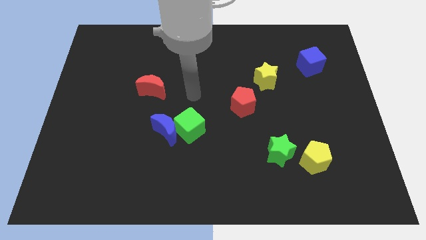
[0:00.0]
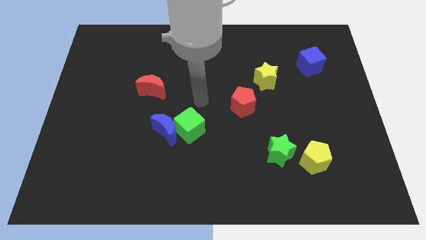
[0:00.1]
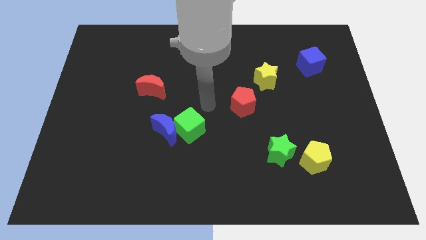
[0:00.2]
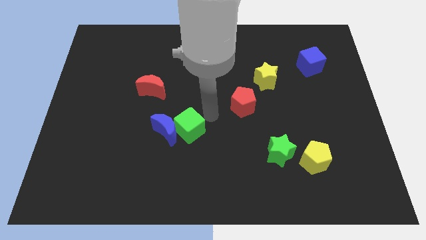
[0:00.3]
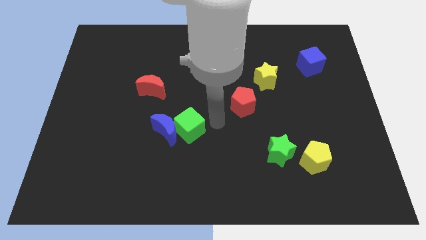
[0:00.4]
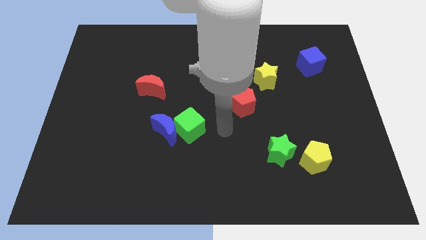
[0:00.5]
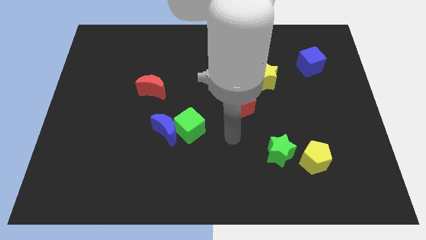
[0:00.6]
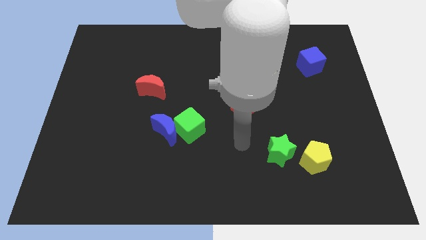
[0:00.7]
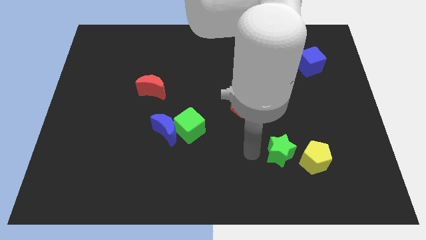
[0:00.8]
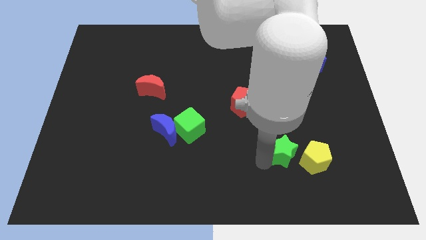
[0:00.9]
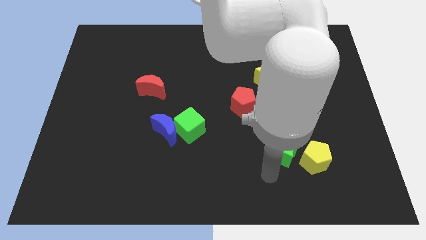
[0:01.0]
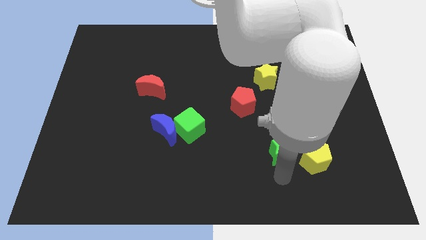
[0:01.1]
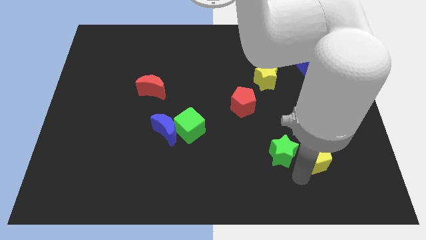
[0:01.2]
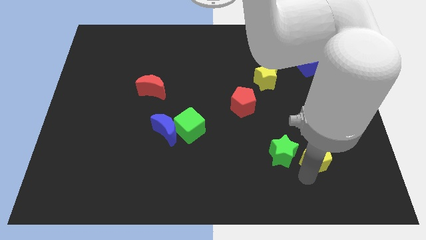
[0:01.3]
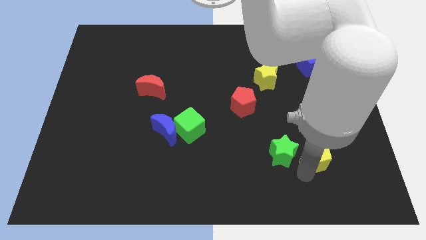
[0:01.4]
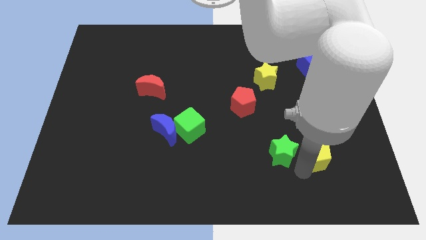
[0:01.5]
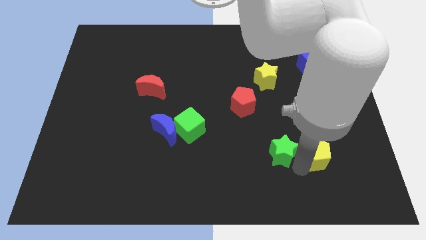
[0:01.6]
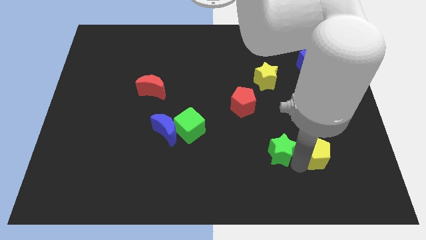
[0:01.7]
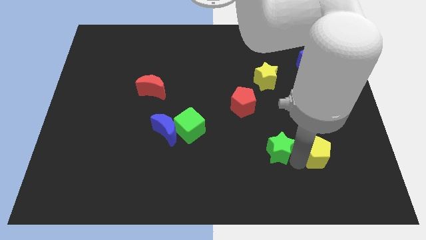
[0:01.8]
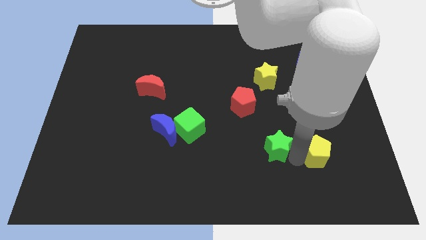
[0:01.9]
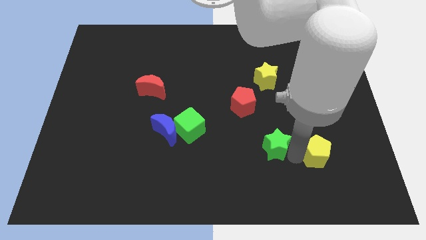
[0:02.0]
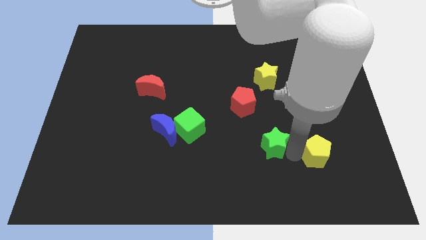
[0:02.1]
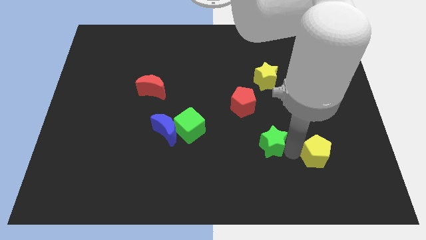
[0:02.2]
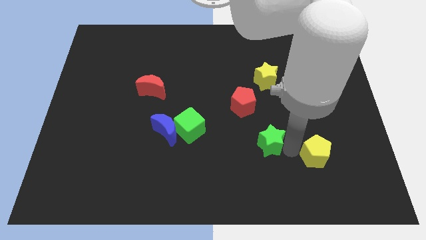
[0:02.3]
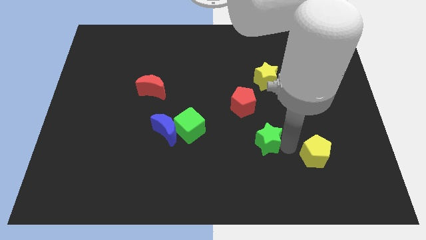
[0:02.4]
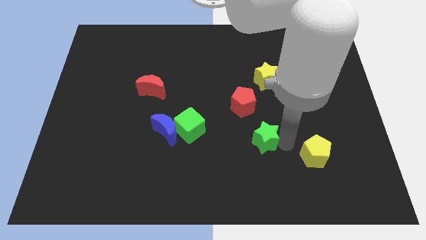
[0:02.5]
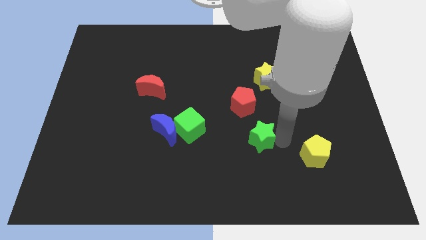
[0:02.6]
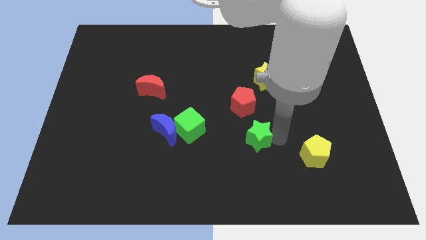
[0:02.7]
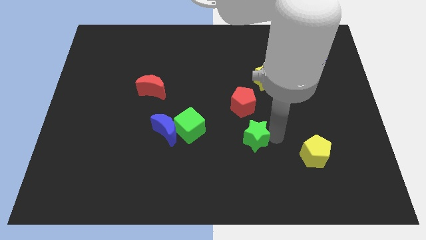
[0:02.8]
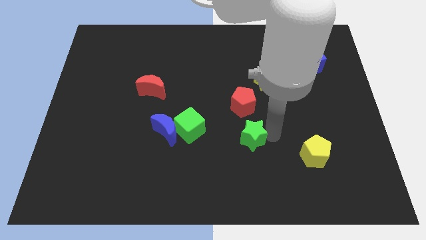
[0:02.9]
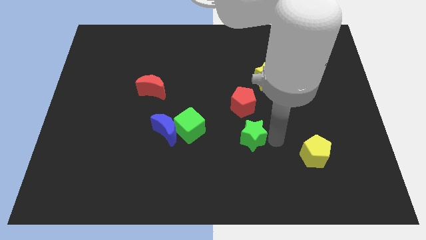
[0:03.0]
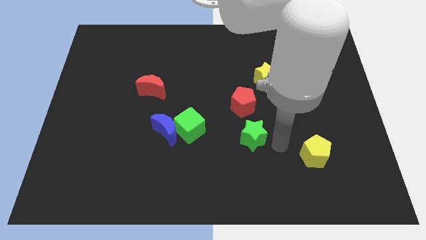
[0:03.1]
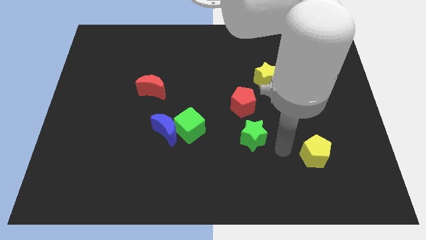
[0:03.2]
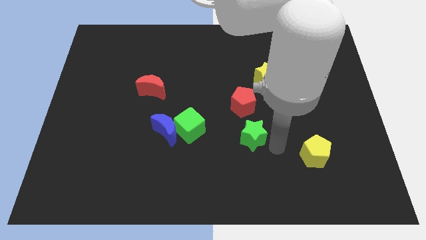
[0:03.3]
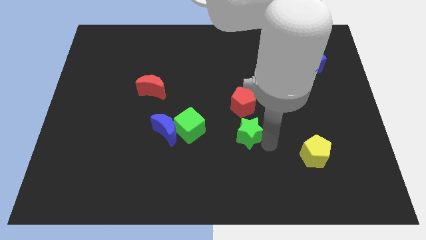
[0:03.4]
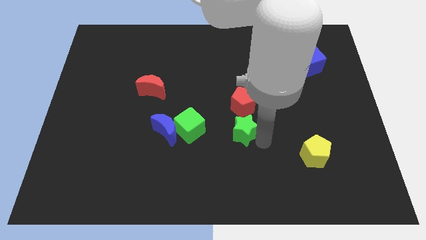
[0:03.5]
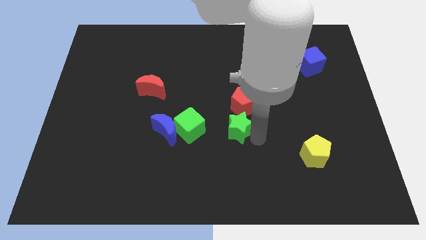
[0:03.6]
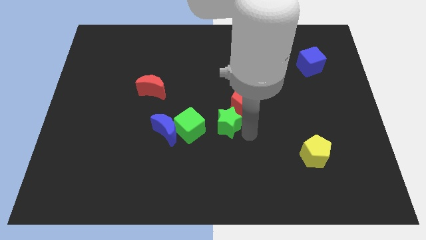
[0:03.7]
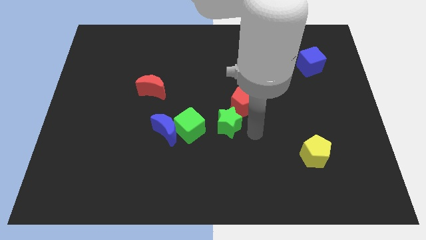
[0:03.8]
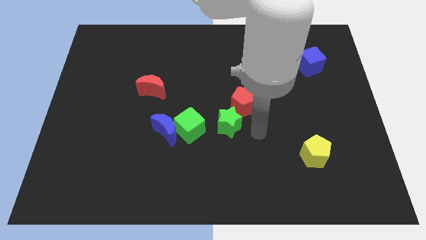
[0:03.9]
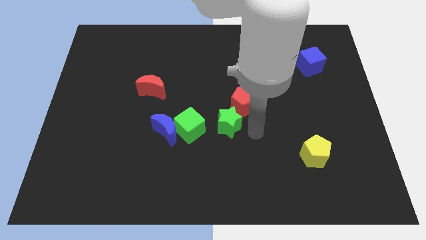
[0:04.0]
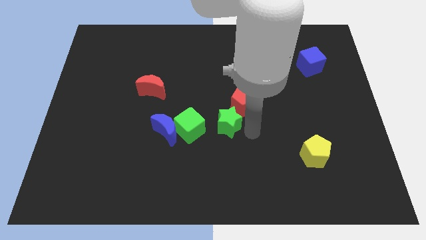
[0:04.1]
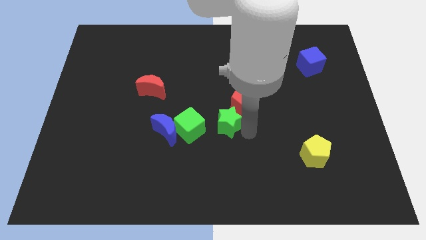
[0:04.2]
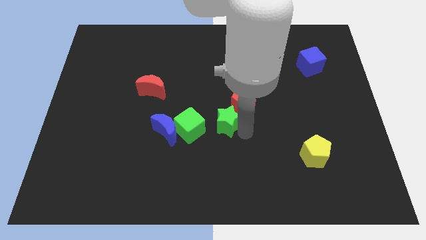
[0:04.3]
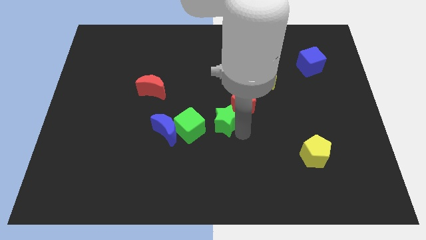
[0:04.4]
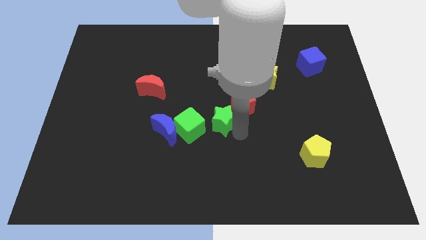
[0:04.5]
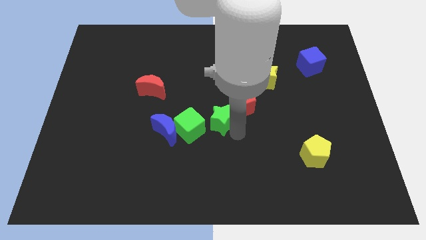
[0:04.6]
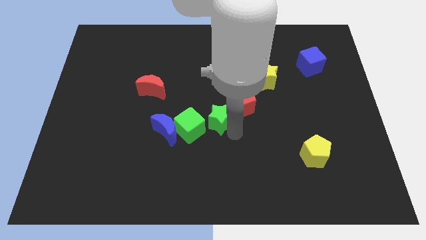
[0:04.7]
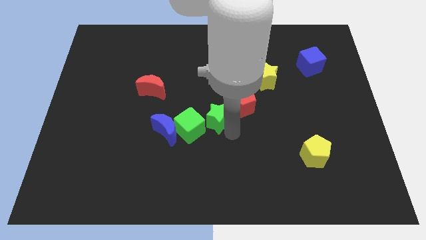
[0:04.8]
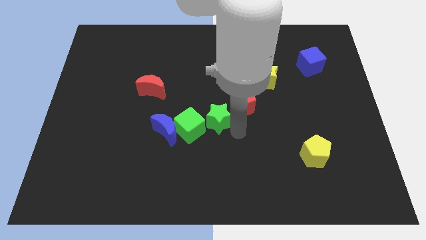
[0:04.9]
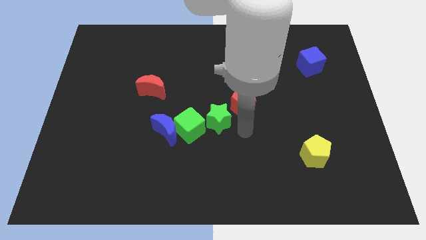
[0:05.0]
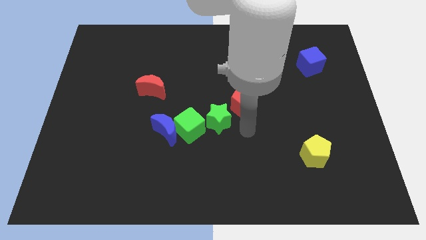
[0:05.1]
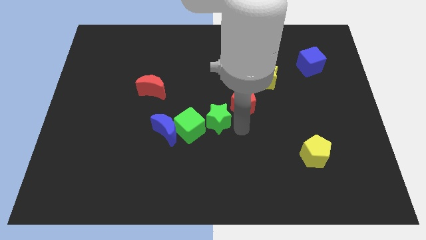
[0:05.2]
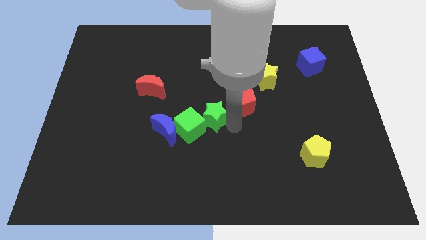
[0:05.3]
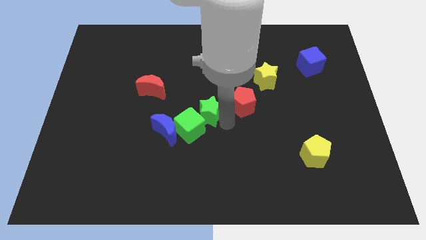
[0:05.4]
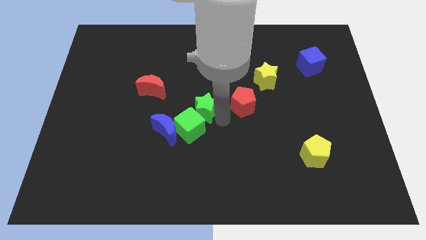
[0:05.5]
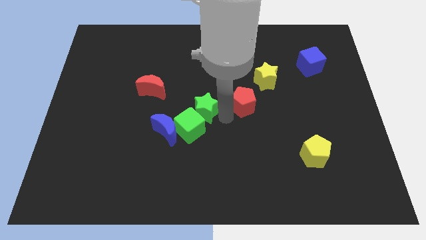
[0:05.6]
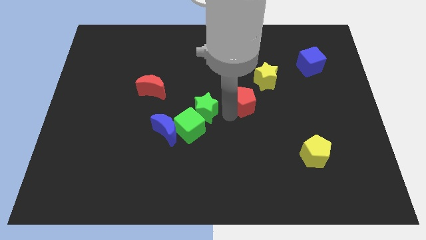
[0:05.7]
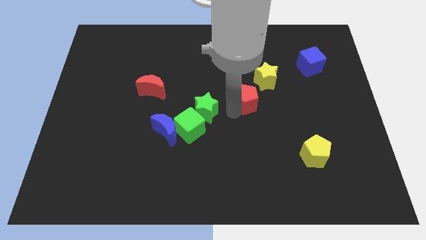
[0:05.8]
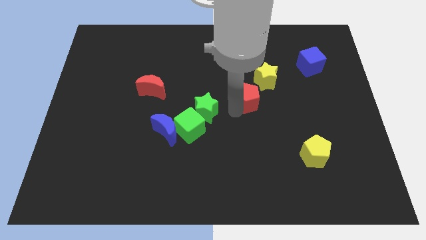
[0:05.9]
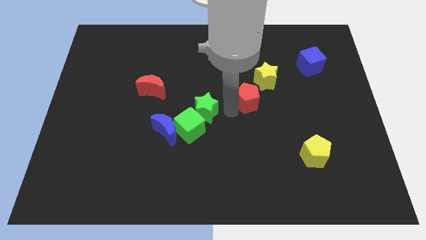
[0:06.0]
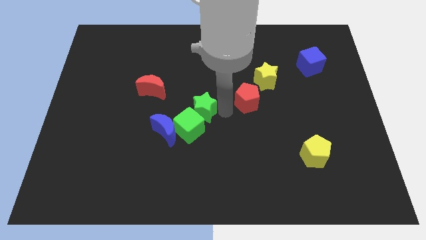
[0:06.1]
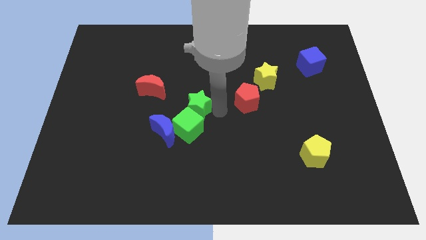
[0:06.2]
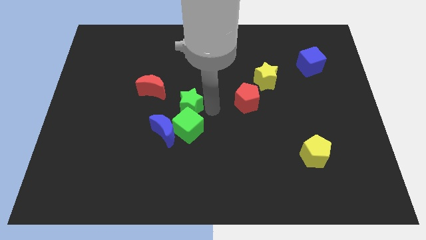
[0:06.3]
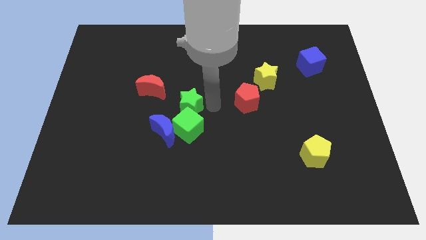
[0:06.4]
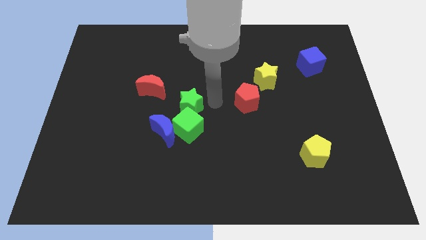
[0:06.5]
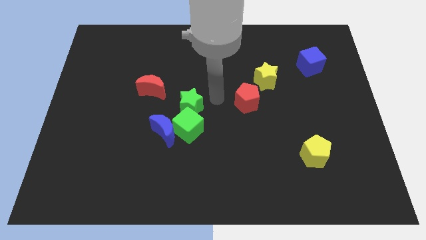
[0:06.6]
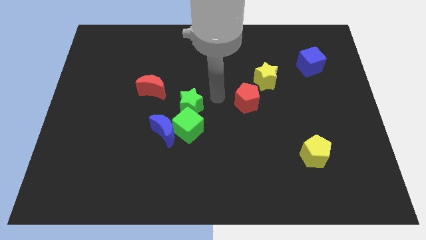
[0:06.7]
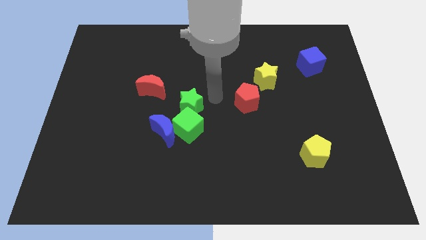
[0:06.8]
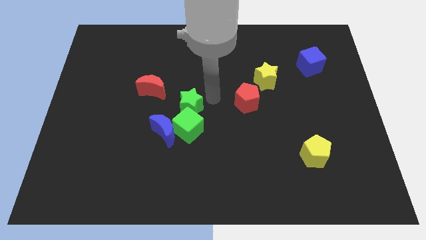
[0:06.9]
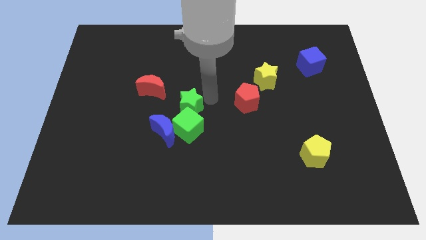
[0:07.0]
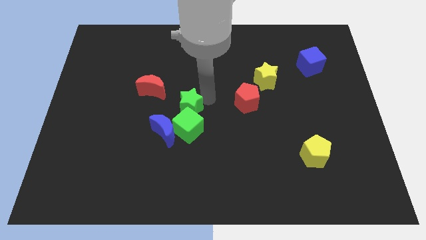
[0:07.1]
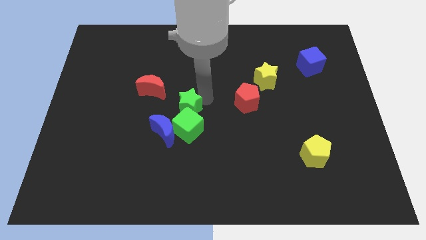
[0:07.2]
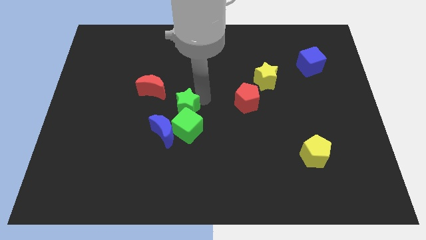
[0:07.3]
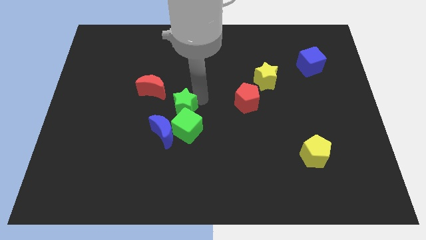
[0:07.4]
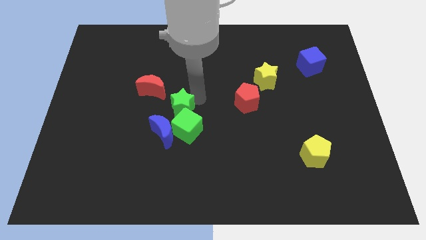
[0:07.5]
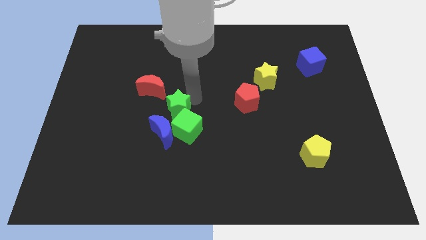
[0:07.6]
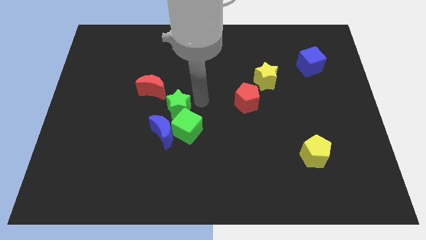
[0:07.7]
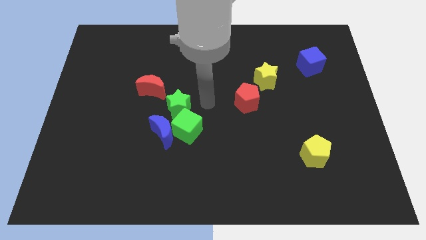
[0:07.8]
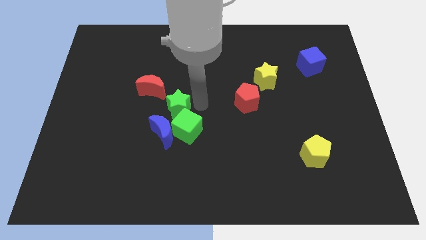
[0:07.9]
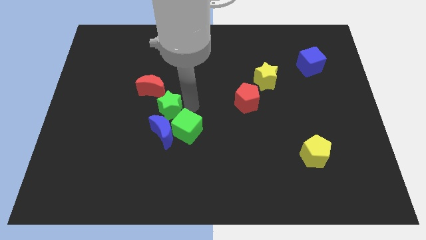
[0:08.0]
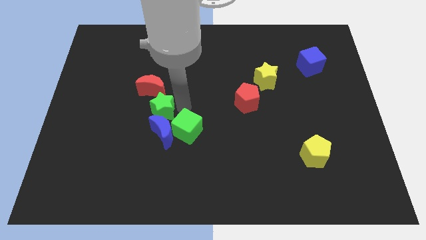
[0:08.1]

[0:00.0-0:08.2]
put the green star to the top left side of the blue moon

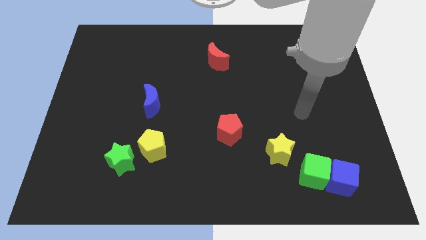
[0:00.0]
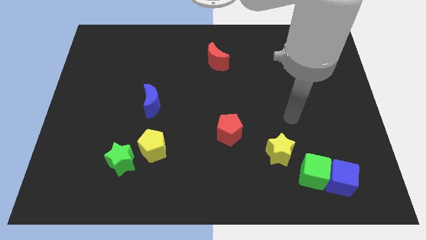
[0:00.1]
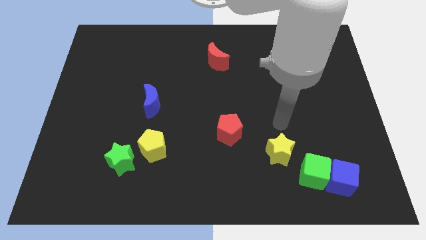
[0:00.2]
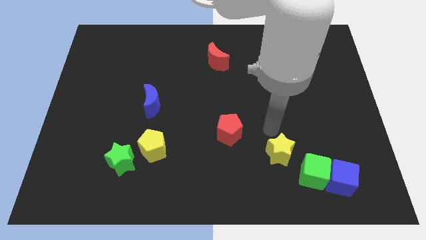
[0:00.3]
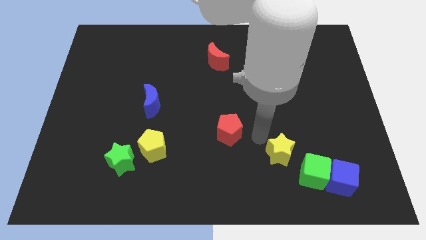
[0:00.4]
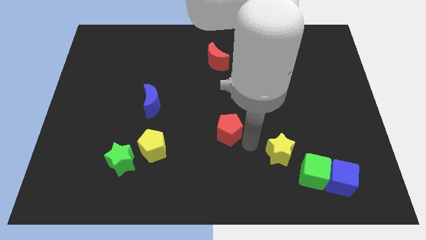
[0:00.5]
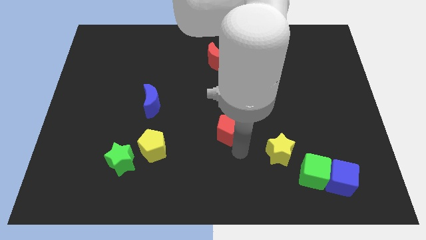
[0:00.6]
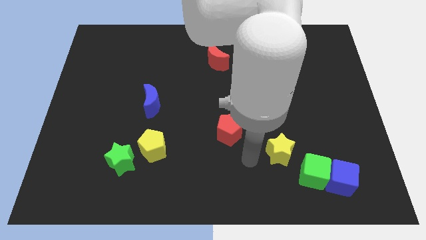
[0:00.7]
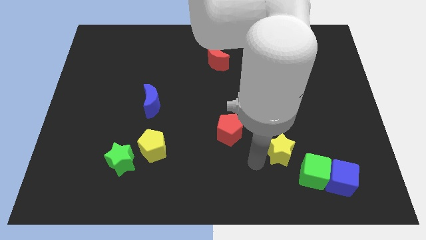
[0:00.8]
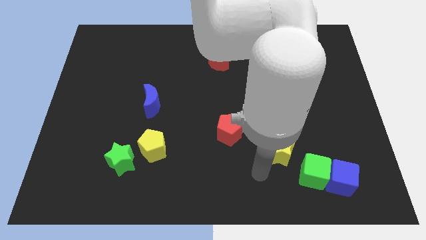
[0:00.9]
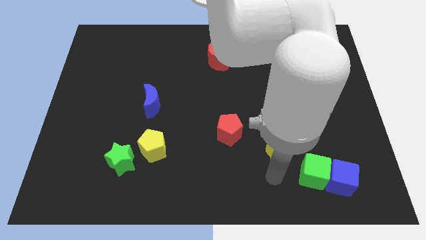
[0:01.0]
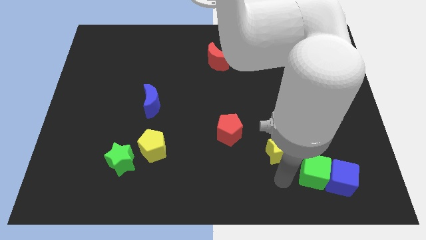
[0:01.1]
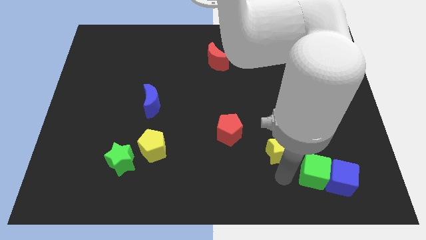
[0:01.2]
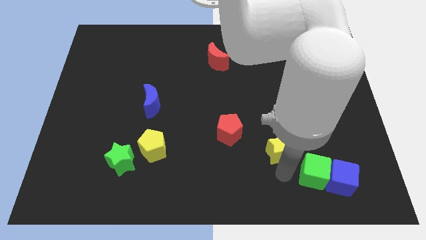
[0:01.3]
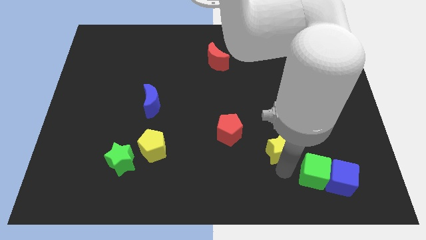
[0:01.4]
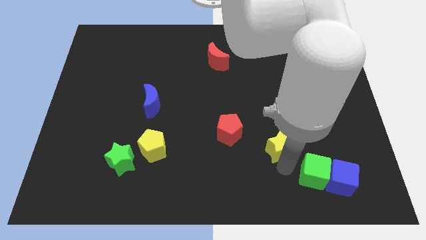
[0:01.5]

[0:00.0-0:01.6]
slide the yellow star just right of the red pentagon
